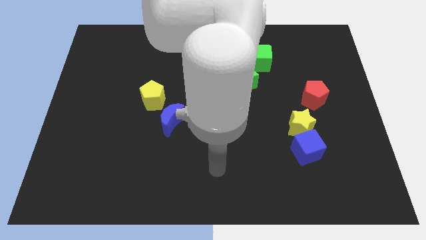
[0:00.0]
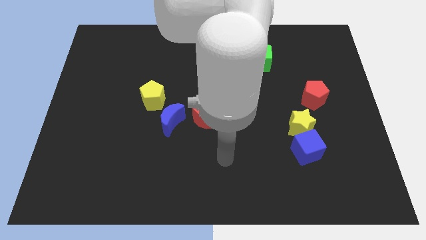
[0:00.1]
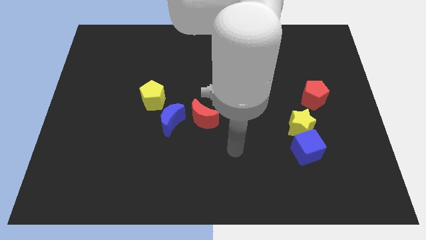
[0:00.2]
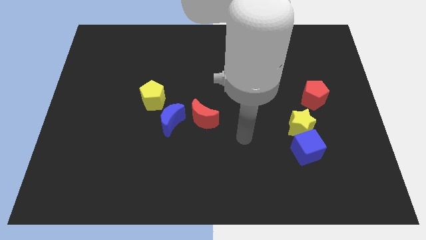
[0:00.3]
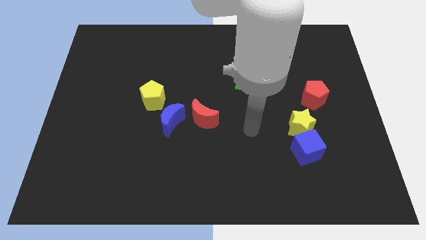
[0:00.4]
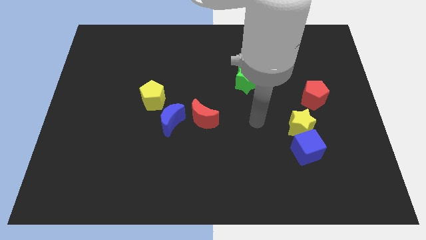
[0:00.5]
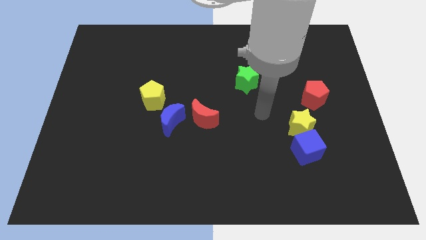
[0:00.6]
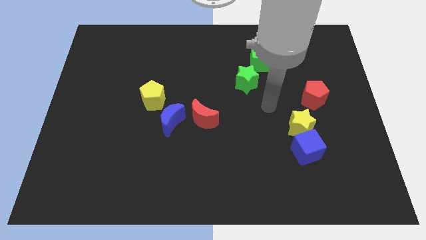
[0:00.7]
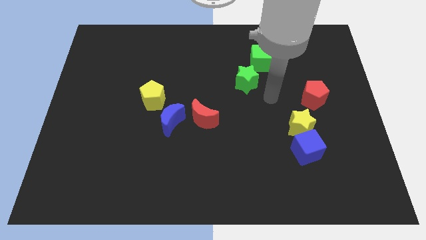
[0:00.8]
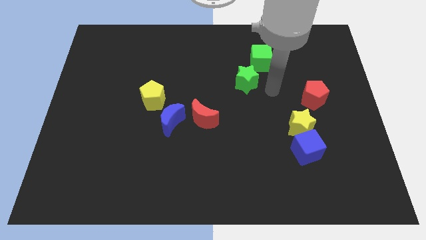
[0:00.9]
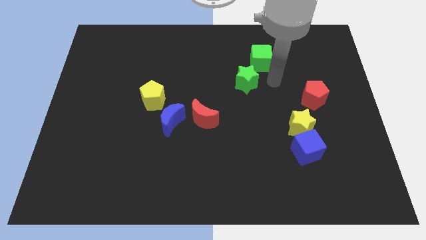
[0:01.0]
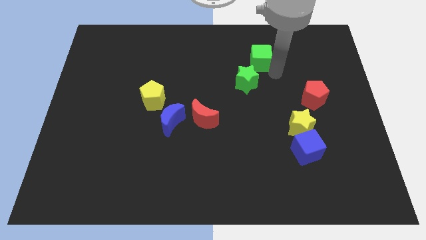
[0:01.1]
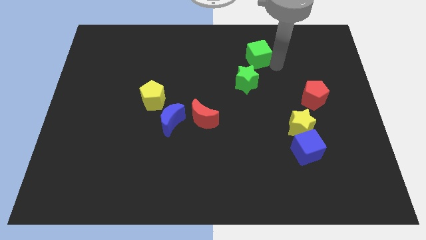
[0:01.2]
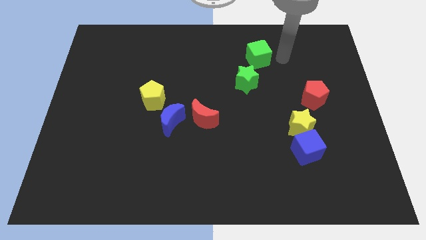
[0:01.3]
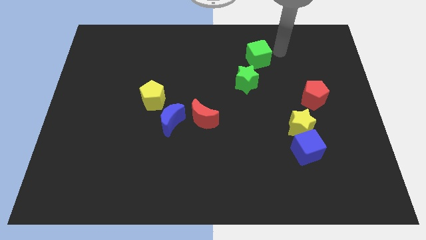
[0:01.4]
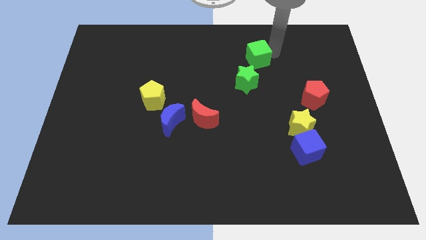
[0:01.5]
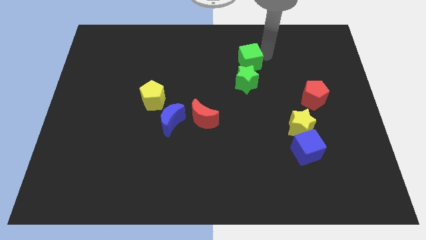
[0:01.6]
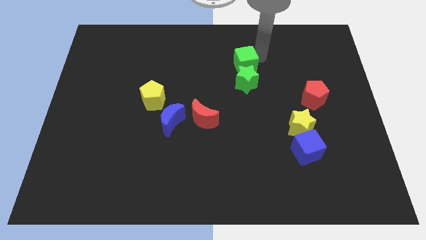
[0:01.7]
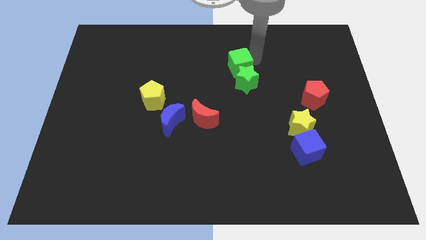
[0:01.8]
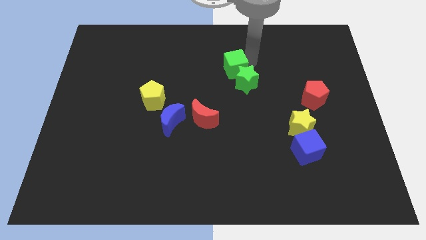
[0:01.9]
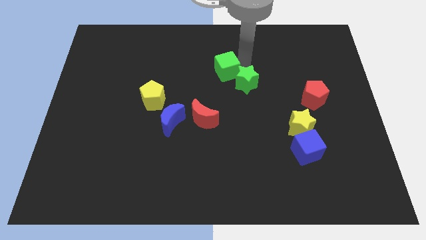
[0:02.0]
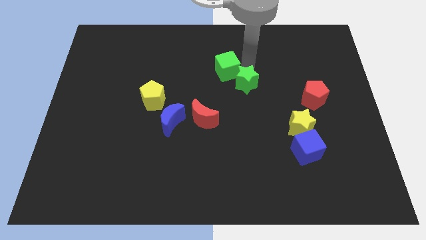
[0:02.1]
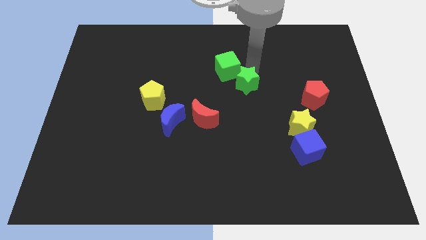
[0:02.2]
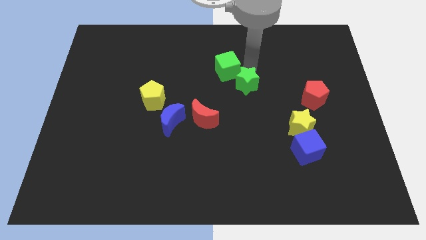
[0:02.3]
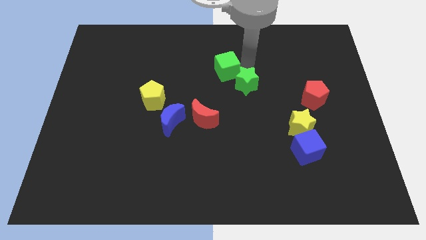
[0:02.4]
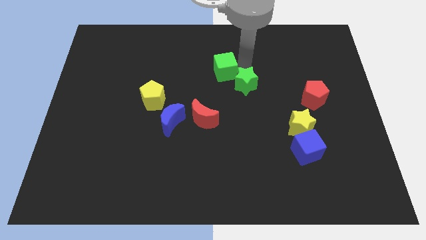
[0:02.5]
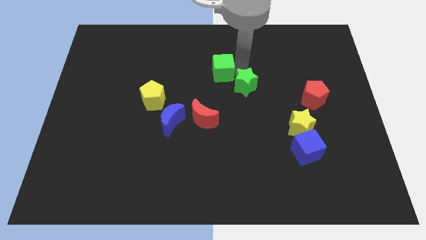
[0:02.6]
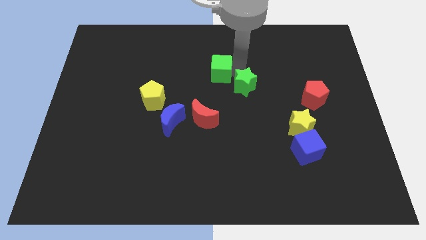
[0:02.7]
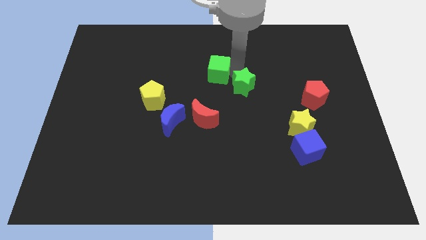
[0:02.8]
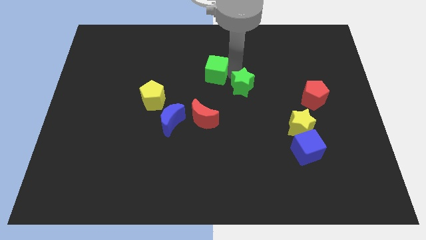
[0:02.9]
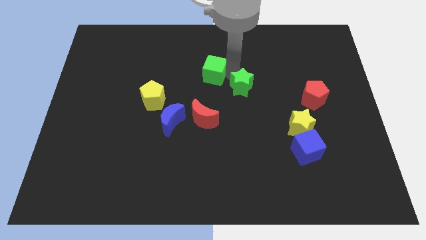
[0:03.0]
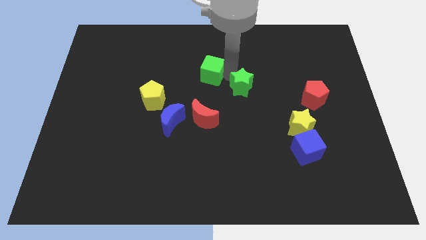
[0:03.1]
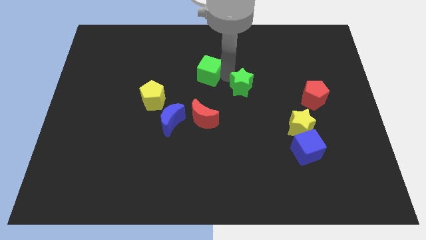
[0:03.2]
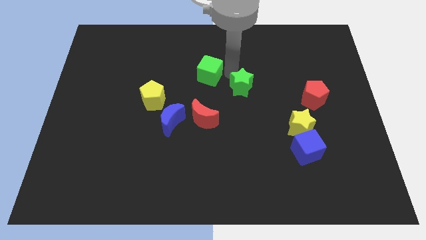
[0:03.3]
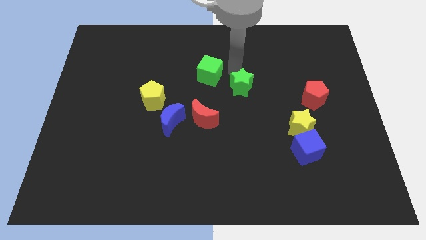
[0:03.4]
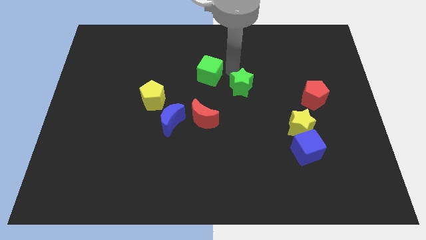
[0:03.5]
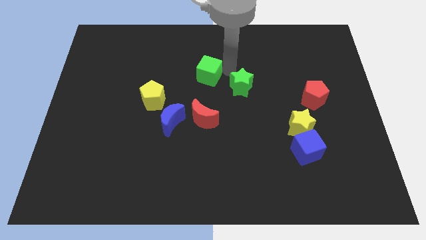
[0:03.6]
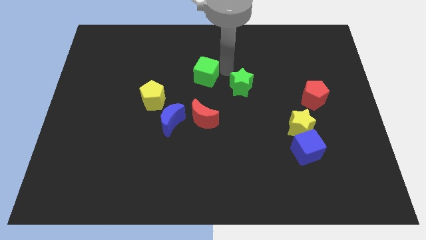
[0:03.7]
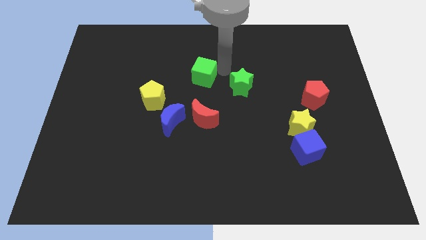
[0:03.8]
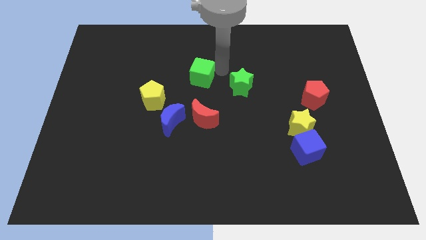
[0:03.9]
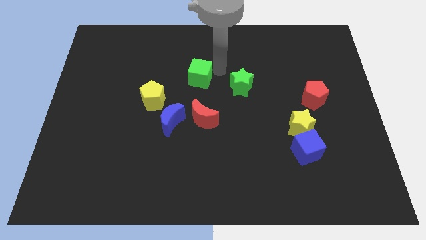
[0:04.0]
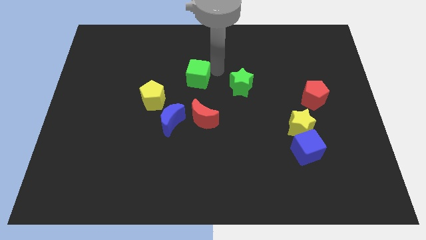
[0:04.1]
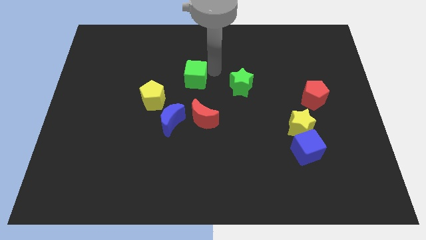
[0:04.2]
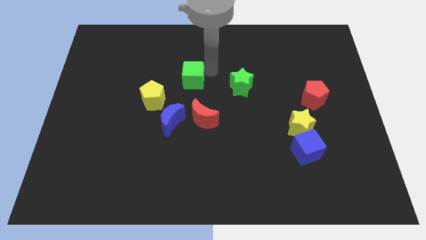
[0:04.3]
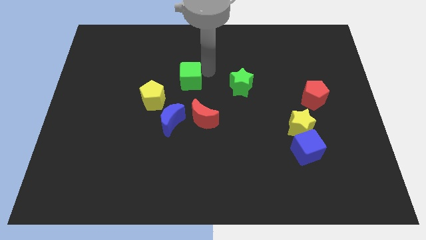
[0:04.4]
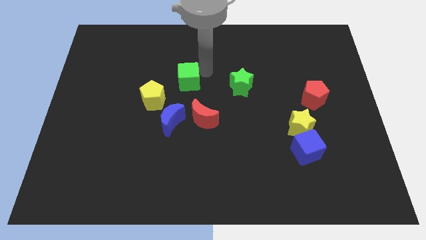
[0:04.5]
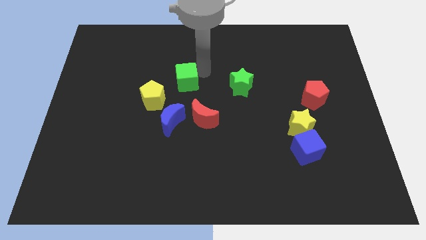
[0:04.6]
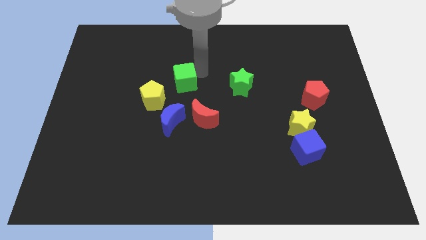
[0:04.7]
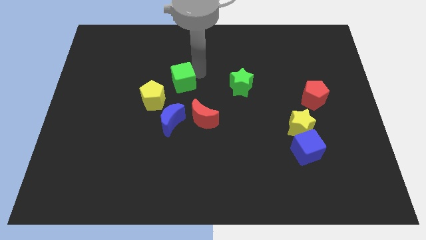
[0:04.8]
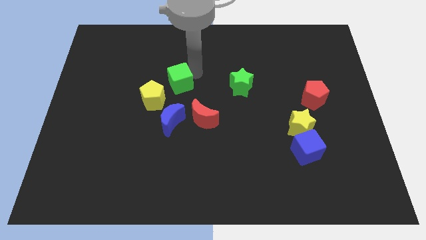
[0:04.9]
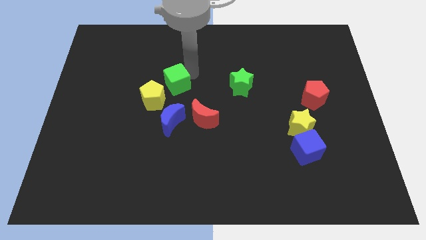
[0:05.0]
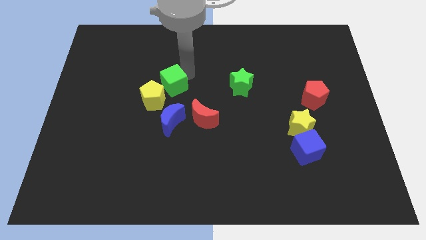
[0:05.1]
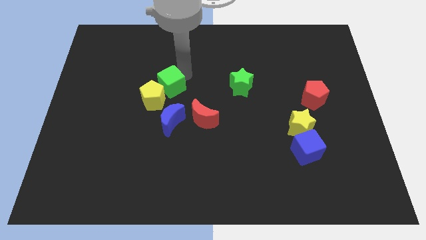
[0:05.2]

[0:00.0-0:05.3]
put the green cube towards the yellow pentagon

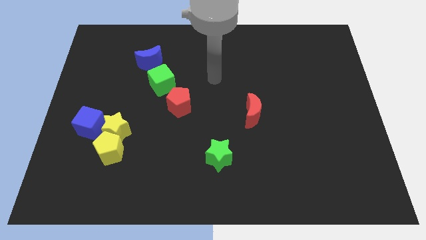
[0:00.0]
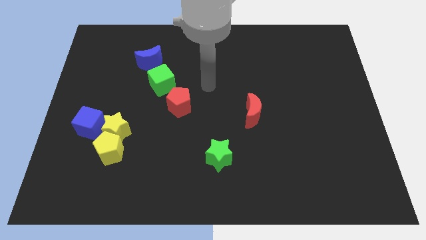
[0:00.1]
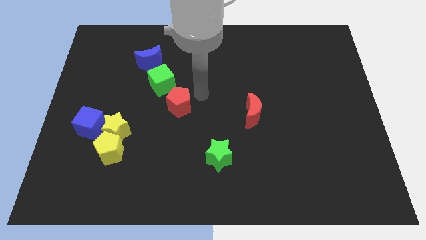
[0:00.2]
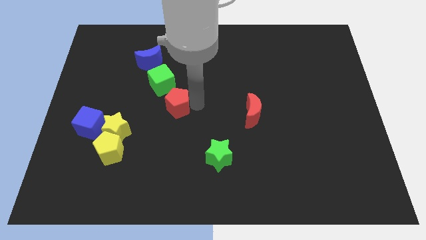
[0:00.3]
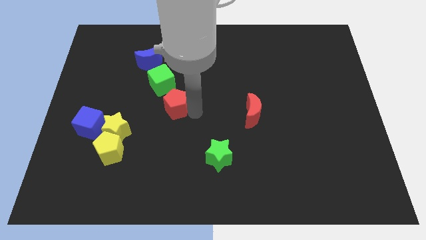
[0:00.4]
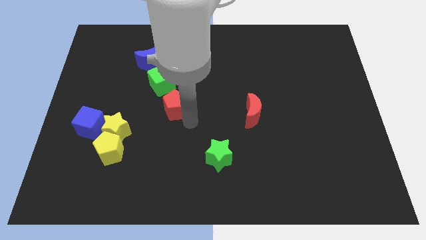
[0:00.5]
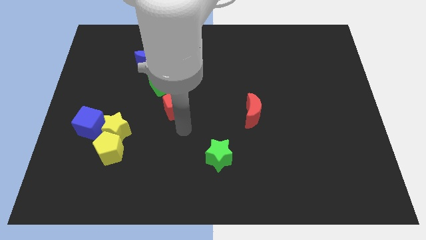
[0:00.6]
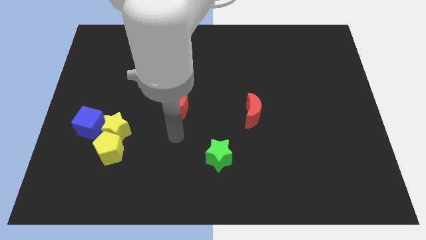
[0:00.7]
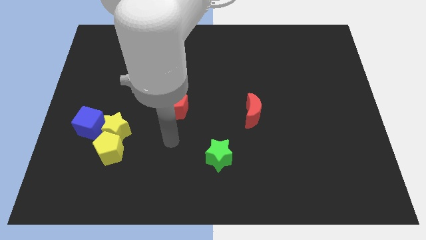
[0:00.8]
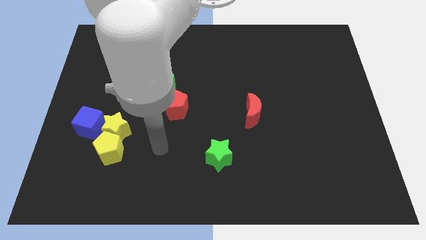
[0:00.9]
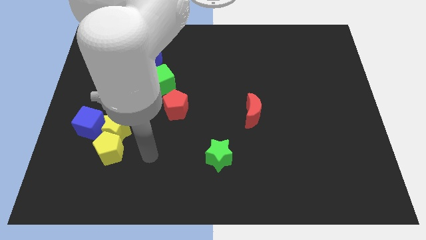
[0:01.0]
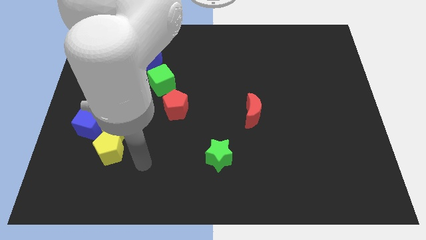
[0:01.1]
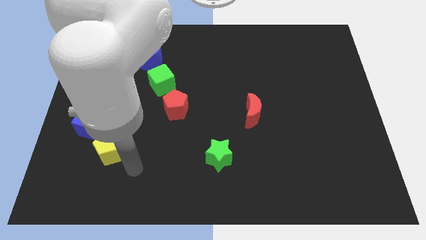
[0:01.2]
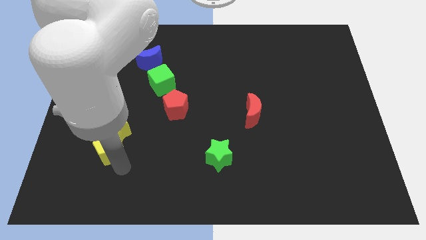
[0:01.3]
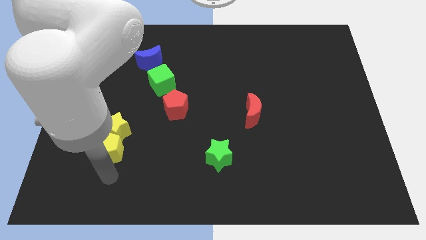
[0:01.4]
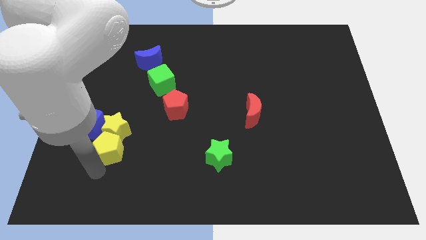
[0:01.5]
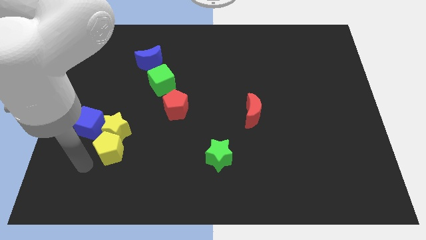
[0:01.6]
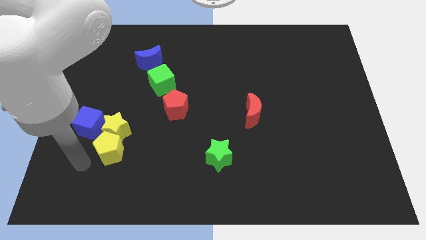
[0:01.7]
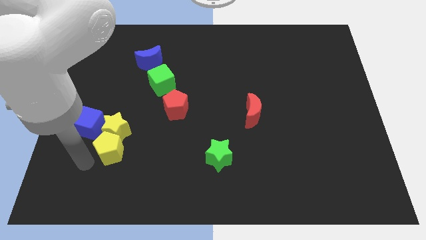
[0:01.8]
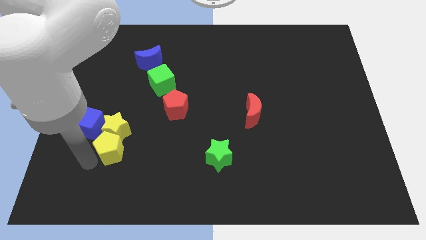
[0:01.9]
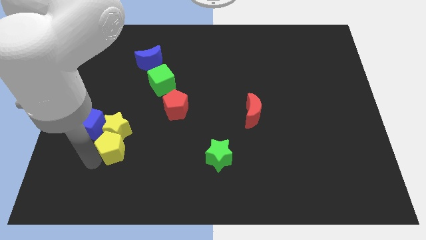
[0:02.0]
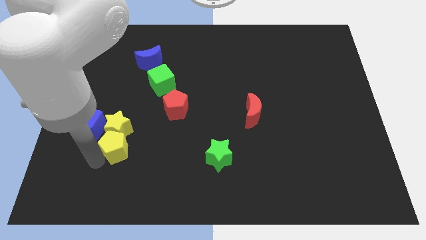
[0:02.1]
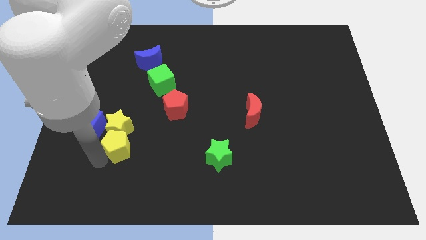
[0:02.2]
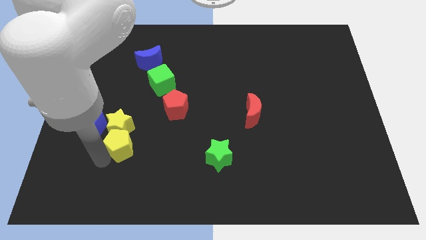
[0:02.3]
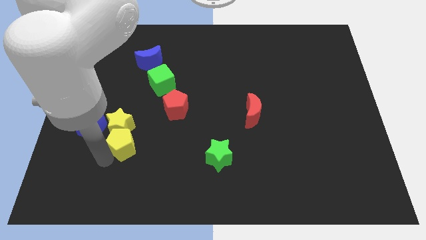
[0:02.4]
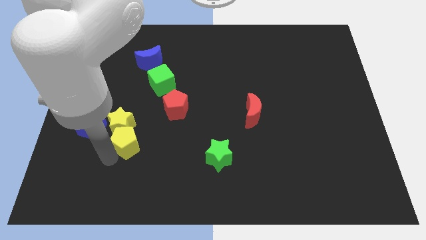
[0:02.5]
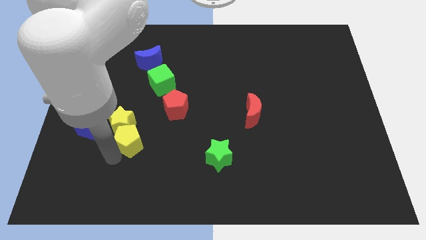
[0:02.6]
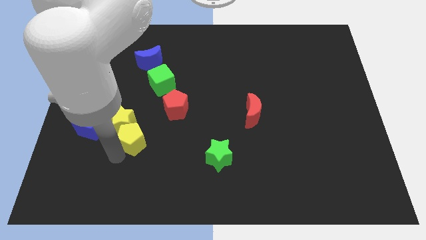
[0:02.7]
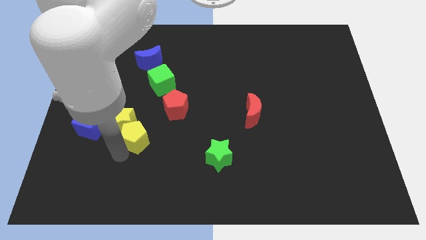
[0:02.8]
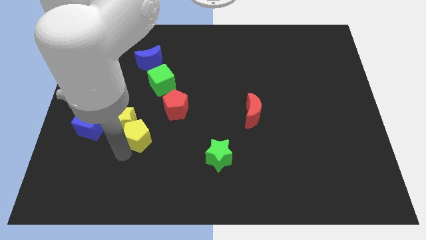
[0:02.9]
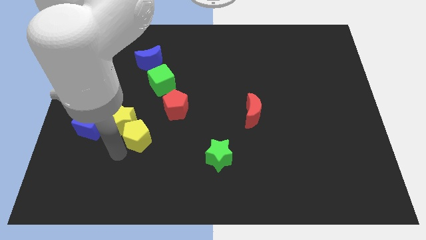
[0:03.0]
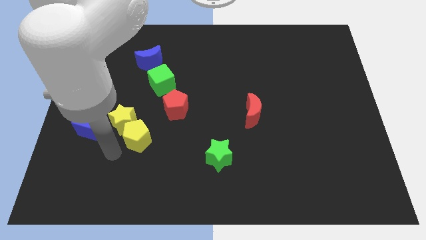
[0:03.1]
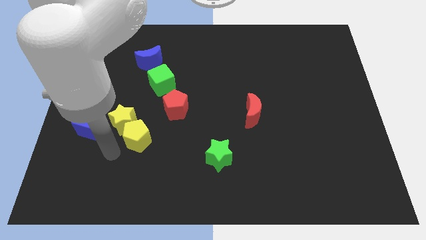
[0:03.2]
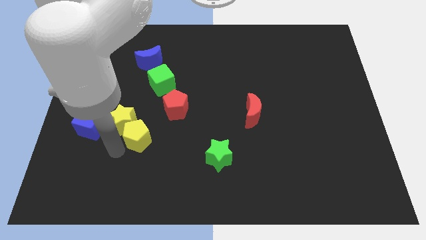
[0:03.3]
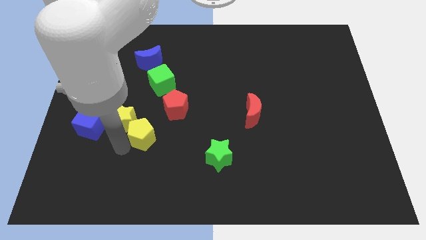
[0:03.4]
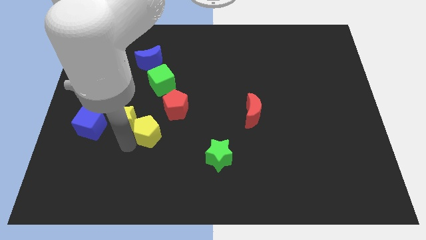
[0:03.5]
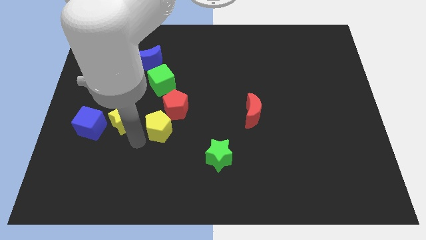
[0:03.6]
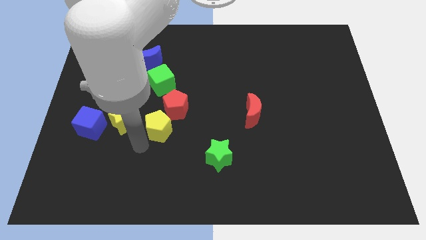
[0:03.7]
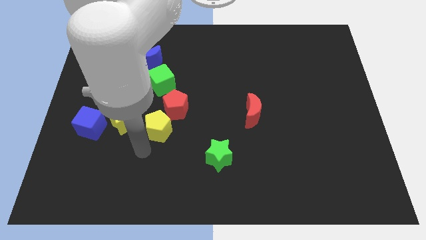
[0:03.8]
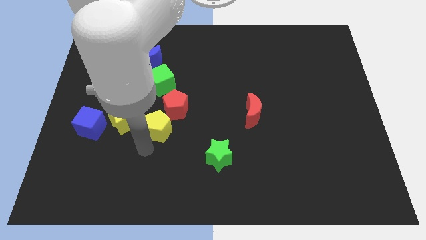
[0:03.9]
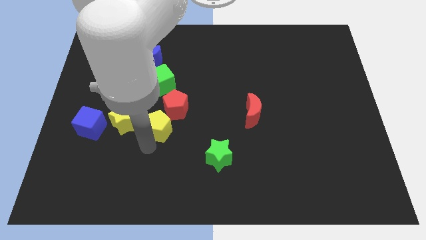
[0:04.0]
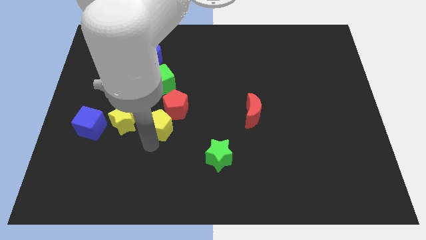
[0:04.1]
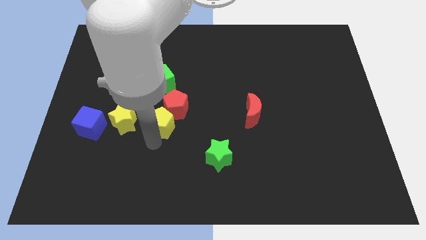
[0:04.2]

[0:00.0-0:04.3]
push the yellow pentagon next to the red pentagon
